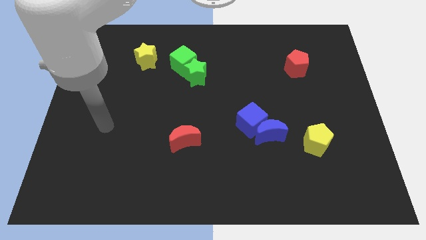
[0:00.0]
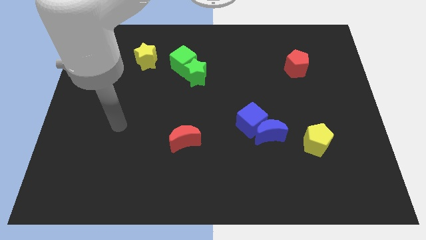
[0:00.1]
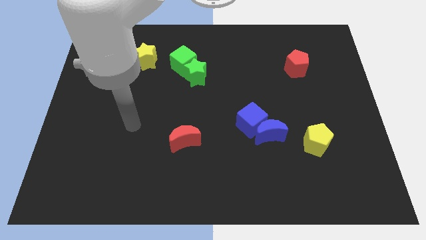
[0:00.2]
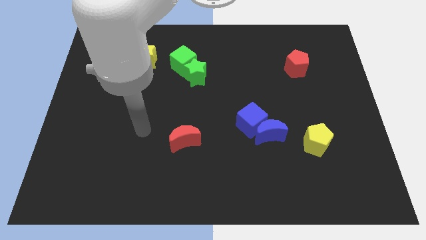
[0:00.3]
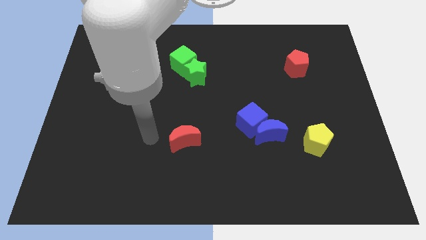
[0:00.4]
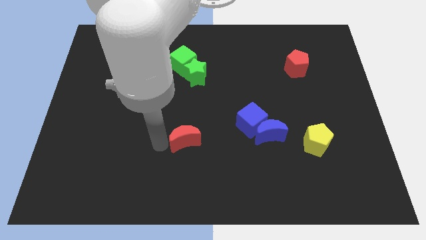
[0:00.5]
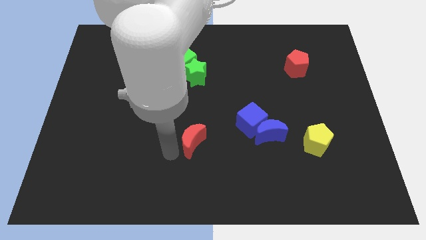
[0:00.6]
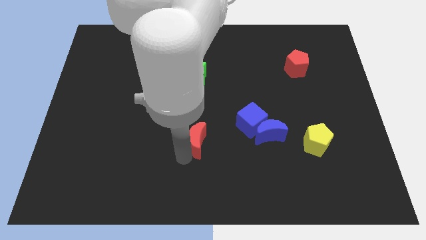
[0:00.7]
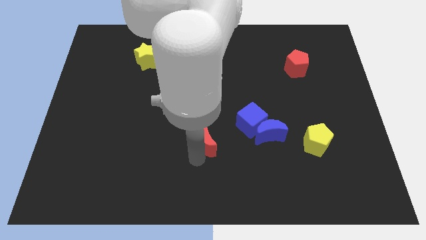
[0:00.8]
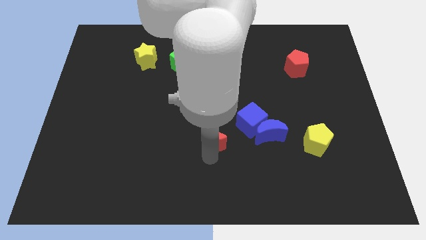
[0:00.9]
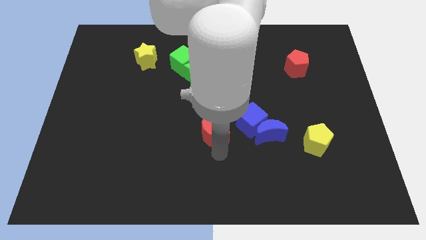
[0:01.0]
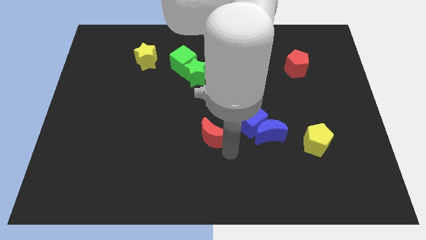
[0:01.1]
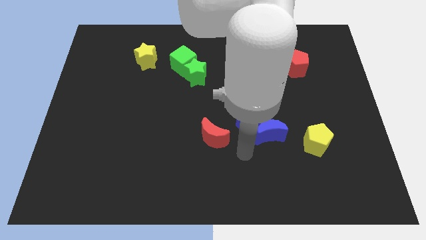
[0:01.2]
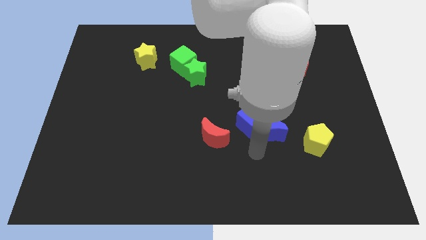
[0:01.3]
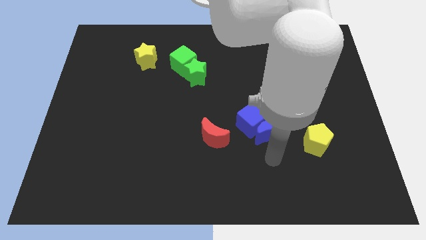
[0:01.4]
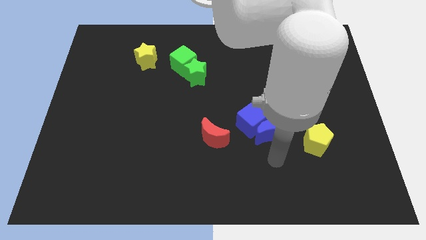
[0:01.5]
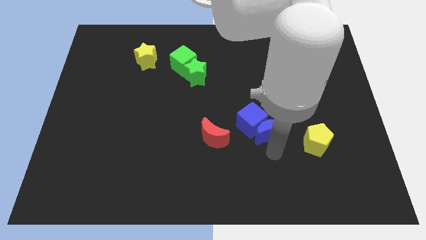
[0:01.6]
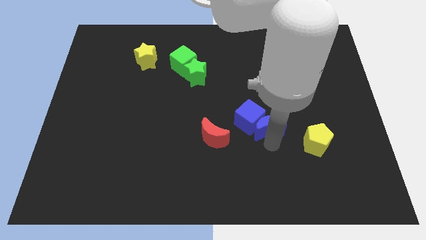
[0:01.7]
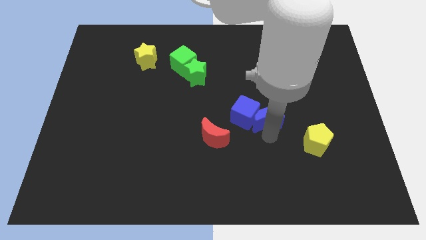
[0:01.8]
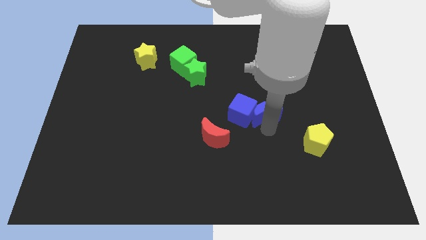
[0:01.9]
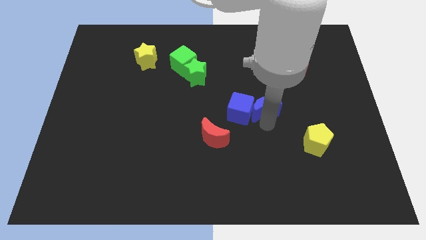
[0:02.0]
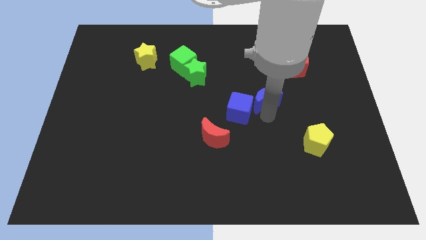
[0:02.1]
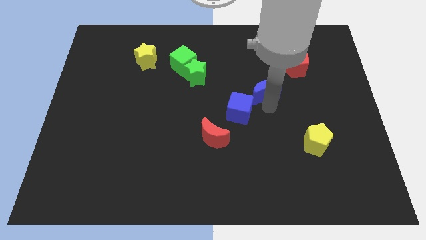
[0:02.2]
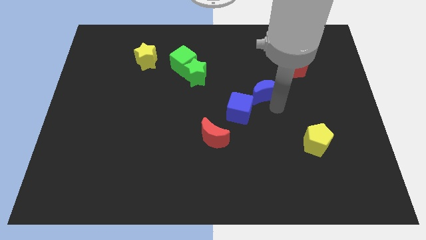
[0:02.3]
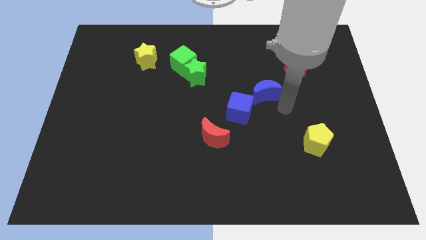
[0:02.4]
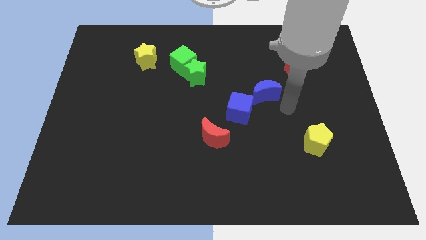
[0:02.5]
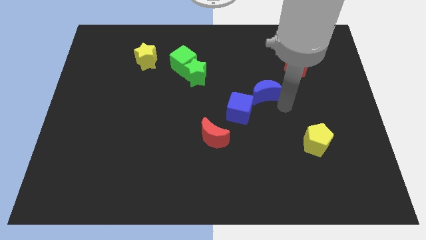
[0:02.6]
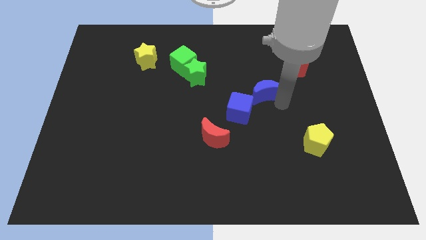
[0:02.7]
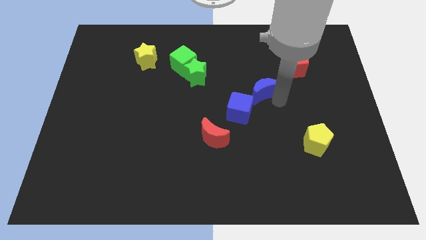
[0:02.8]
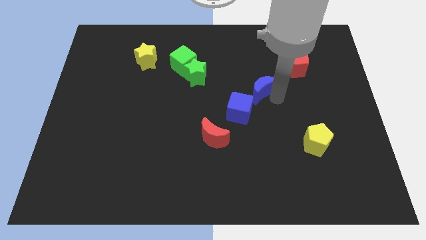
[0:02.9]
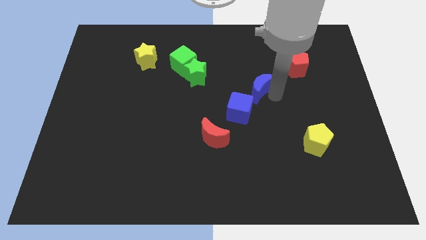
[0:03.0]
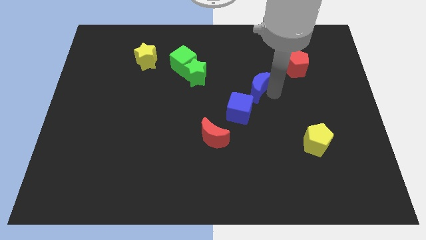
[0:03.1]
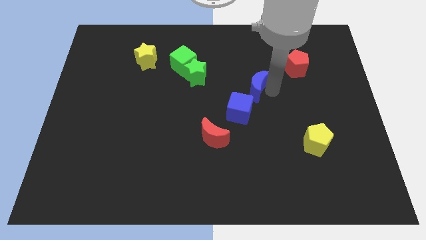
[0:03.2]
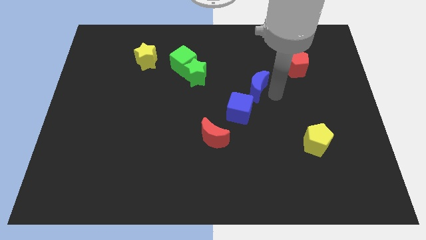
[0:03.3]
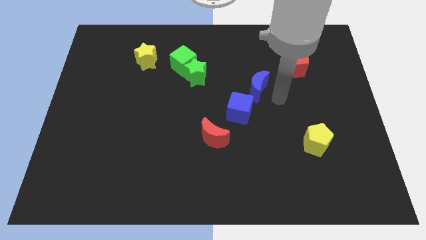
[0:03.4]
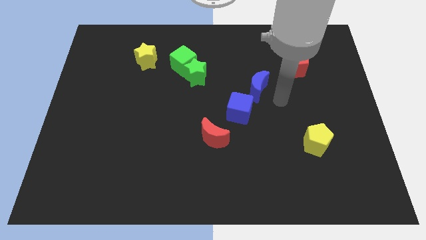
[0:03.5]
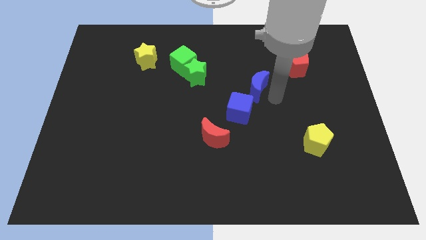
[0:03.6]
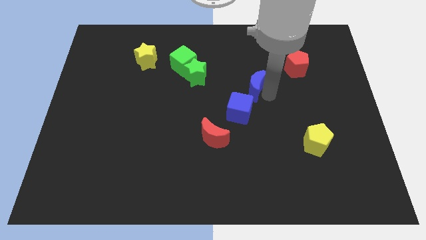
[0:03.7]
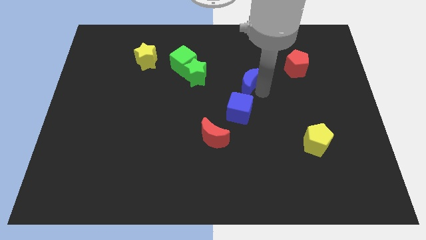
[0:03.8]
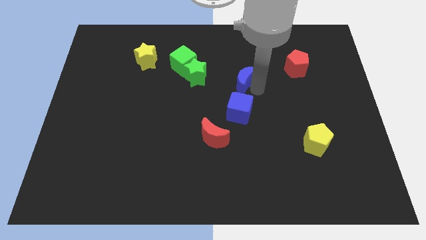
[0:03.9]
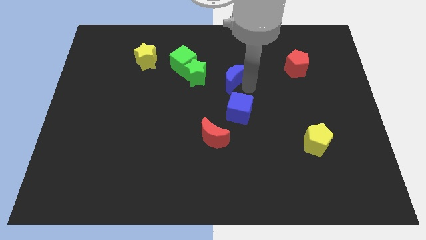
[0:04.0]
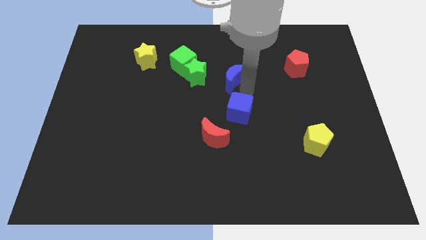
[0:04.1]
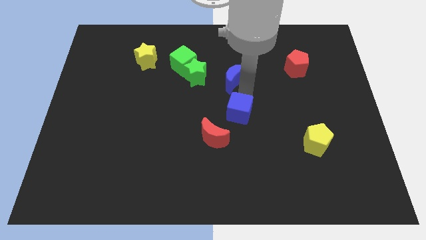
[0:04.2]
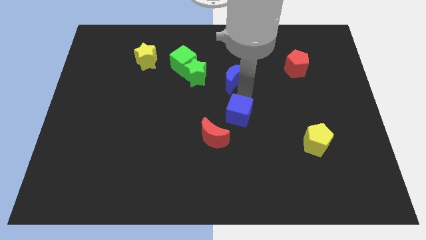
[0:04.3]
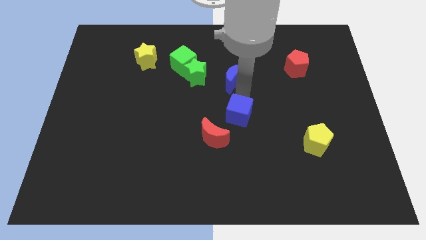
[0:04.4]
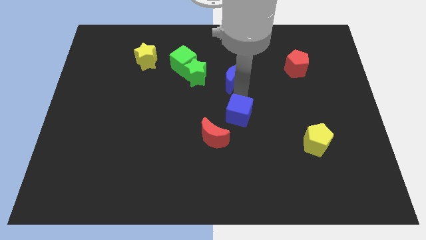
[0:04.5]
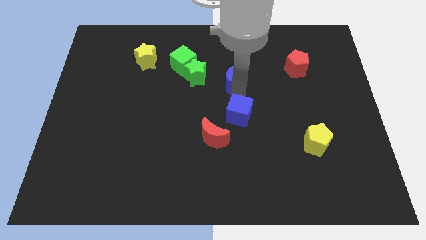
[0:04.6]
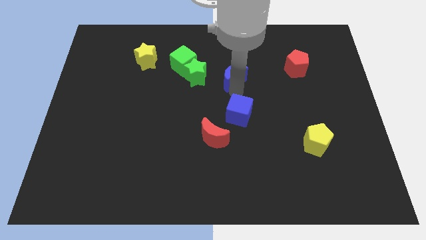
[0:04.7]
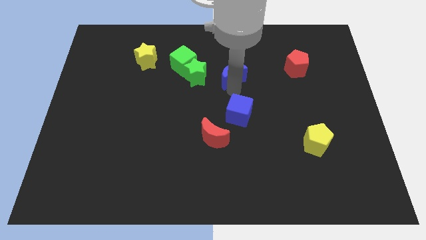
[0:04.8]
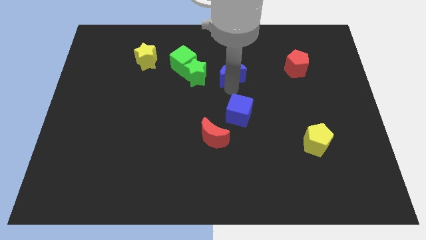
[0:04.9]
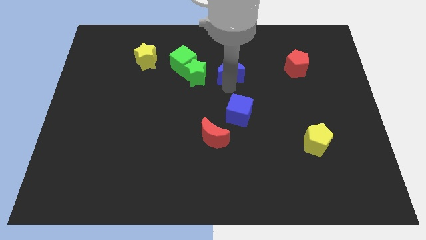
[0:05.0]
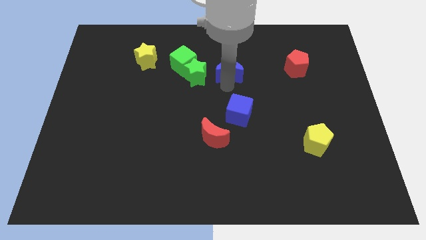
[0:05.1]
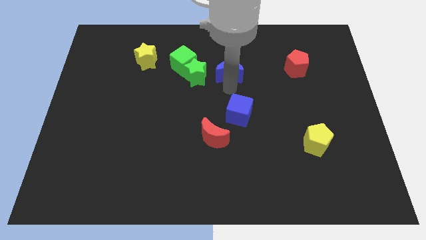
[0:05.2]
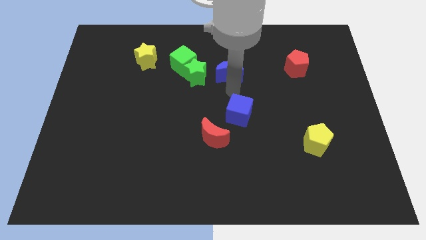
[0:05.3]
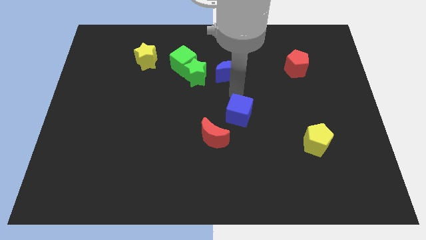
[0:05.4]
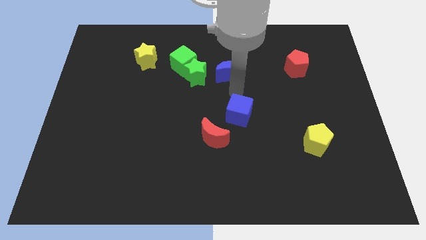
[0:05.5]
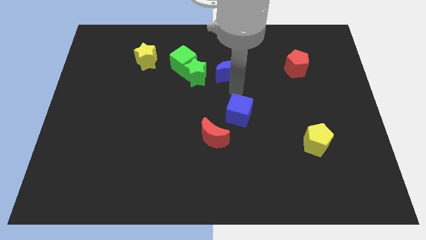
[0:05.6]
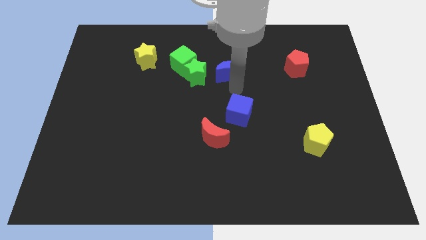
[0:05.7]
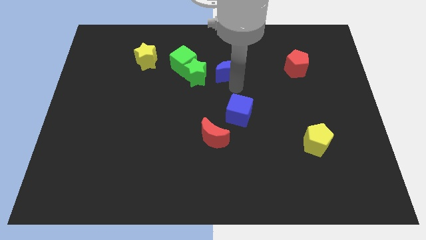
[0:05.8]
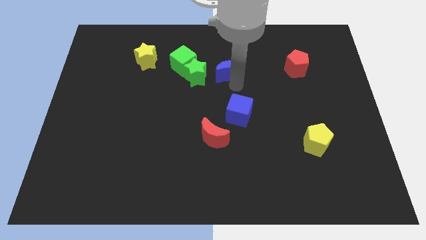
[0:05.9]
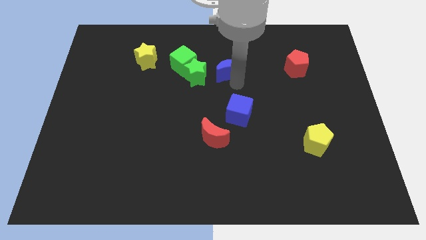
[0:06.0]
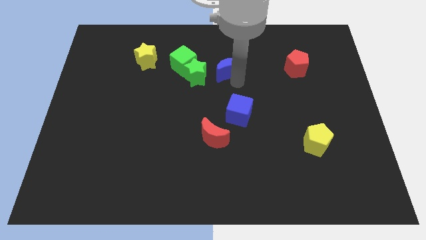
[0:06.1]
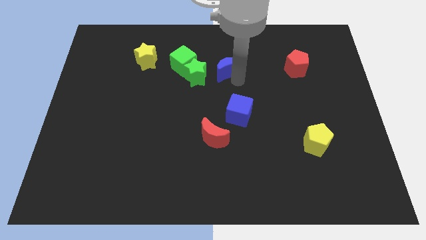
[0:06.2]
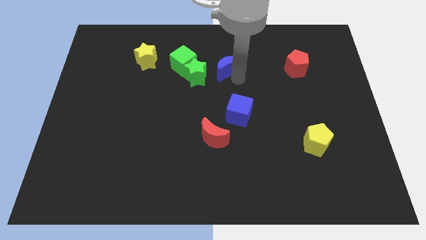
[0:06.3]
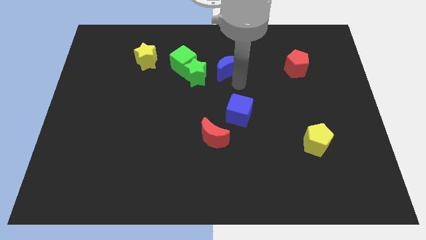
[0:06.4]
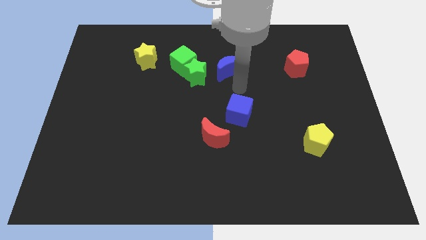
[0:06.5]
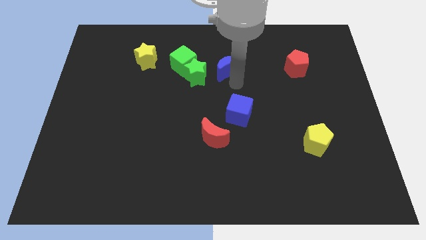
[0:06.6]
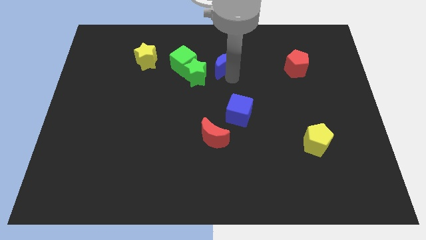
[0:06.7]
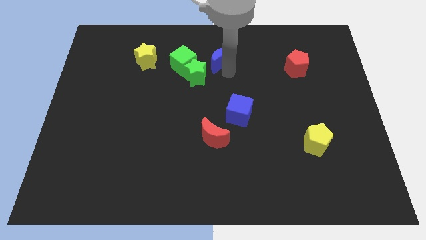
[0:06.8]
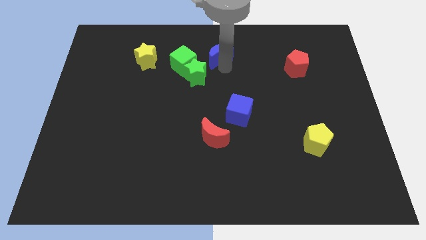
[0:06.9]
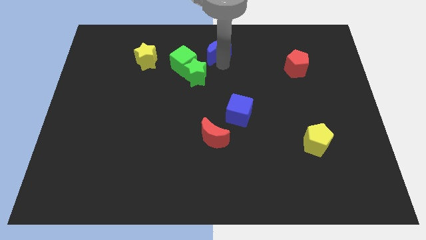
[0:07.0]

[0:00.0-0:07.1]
move the blue moon to the top side
